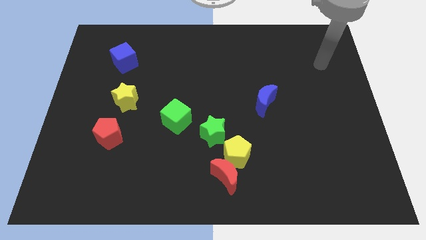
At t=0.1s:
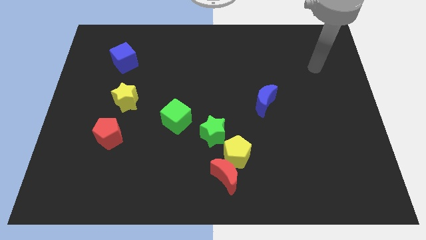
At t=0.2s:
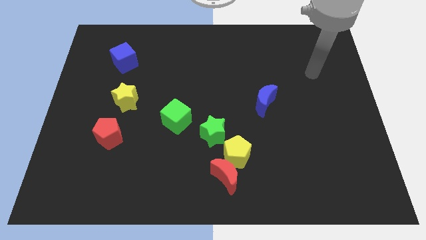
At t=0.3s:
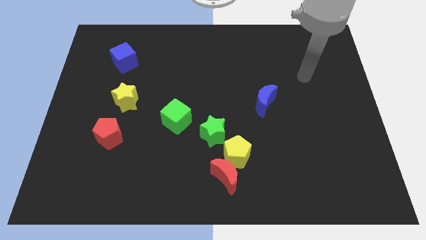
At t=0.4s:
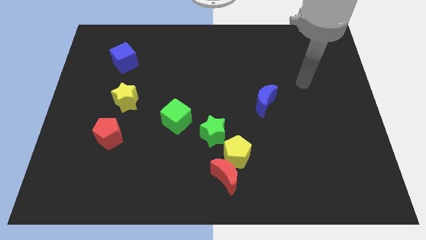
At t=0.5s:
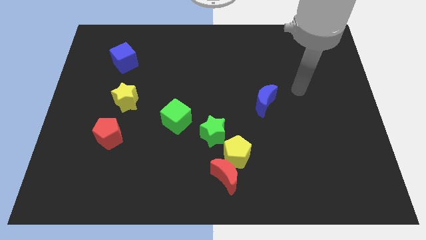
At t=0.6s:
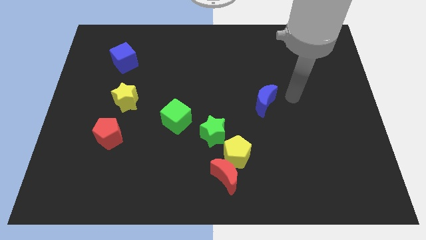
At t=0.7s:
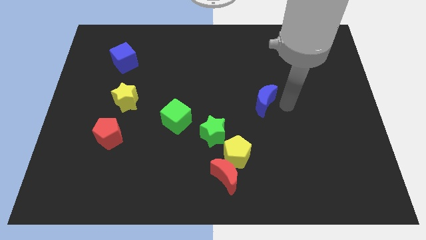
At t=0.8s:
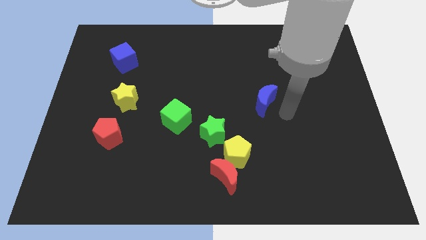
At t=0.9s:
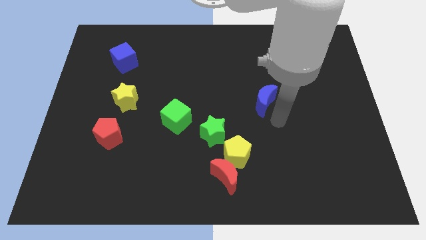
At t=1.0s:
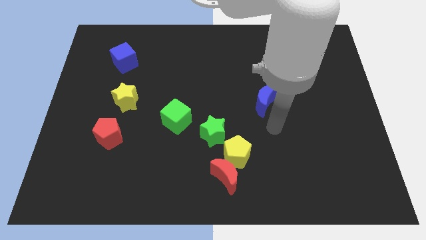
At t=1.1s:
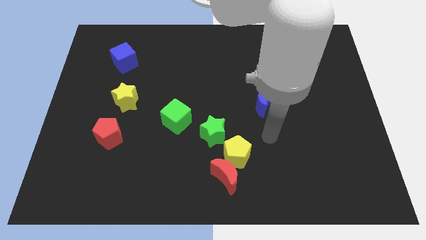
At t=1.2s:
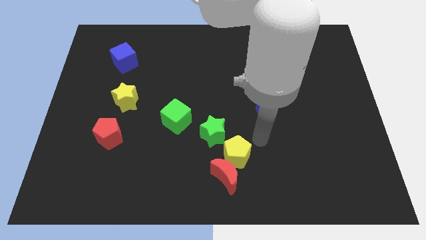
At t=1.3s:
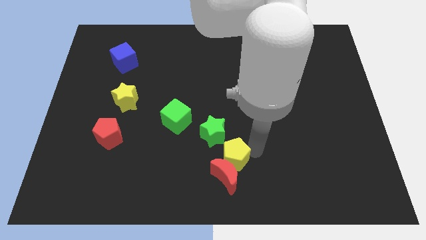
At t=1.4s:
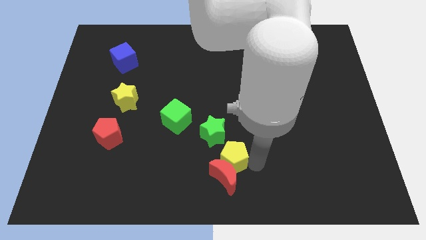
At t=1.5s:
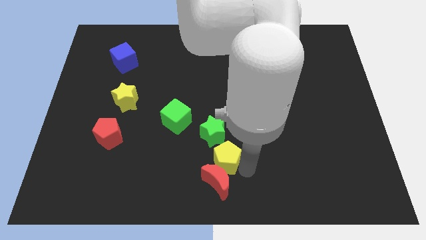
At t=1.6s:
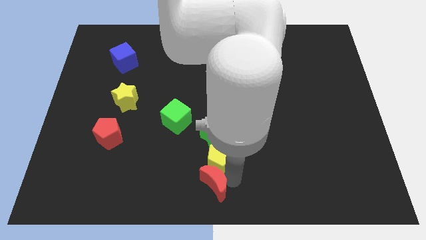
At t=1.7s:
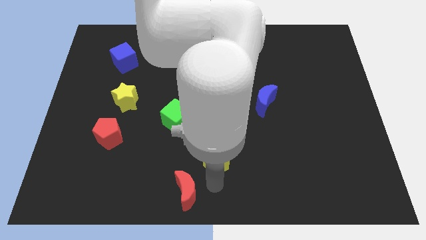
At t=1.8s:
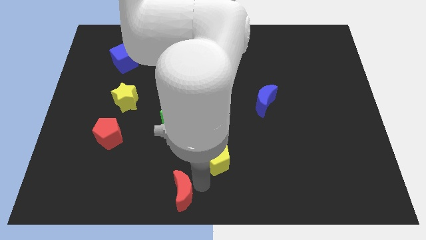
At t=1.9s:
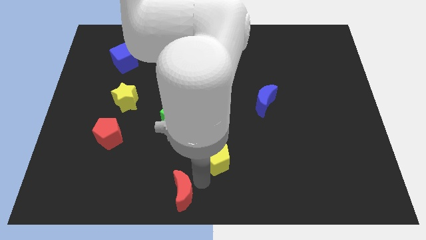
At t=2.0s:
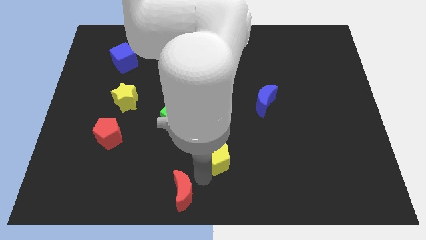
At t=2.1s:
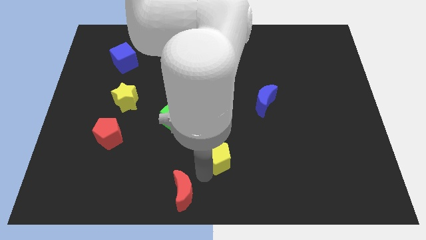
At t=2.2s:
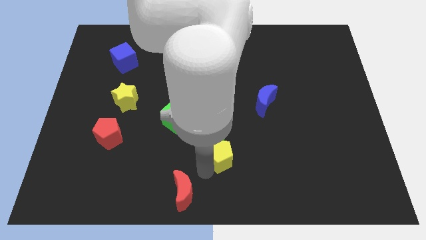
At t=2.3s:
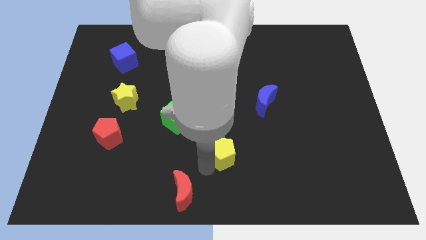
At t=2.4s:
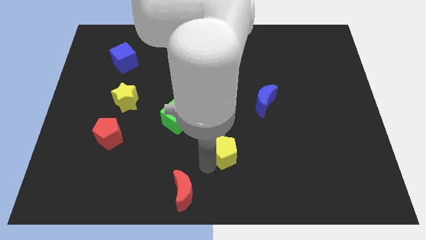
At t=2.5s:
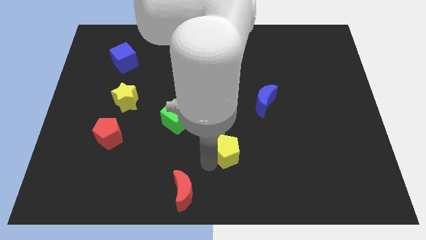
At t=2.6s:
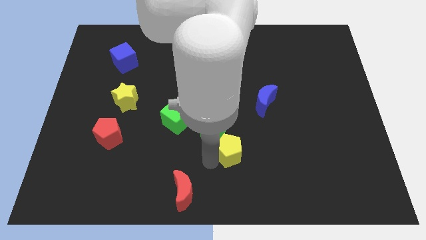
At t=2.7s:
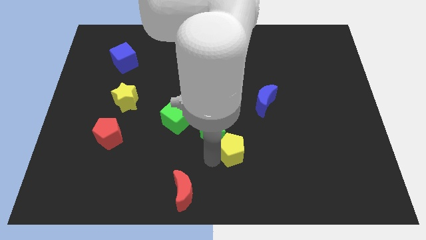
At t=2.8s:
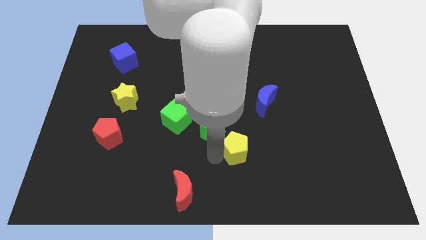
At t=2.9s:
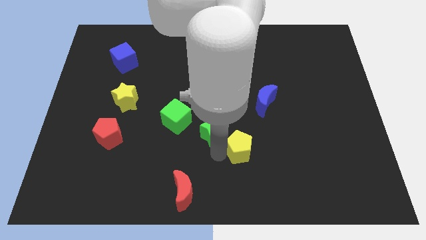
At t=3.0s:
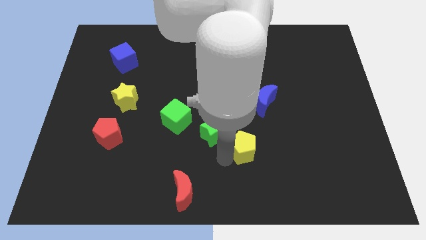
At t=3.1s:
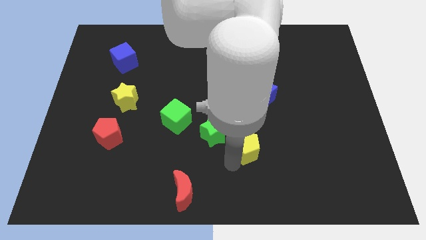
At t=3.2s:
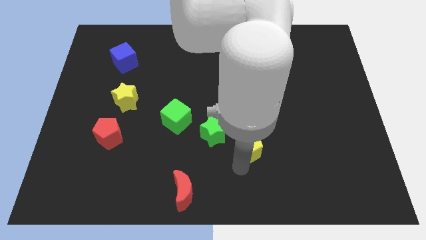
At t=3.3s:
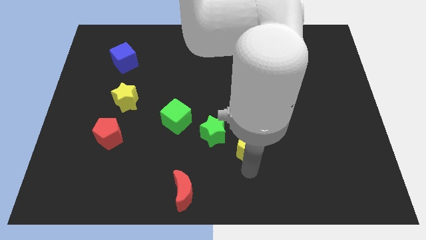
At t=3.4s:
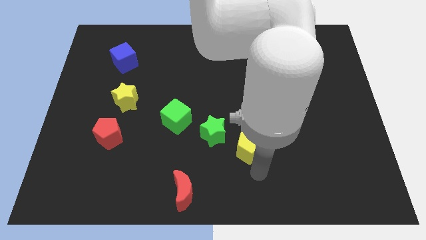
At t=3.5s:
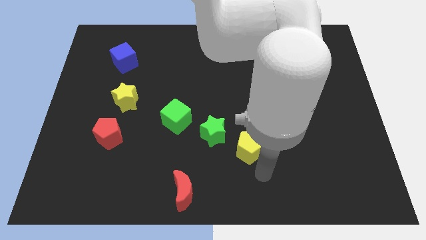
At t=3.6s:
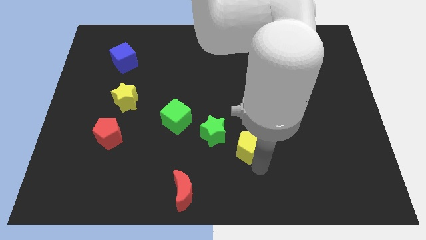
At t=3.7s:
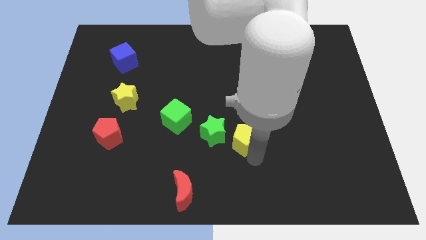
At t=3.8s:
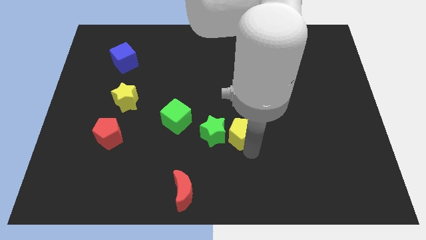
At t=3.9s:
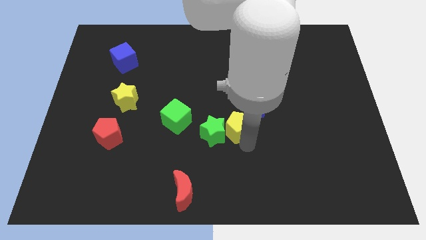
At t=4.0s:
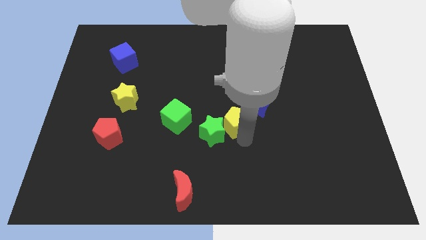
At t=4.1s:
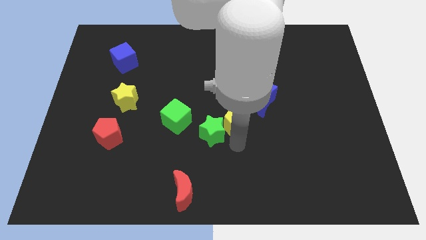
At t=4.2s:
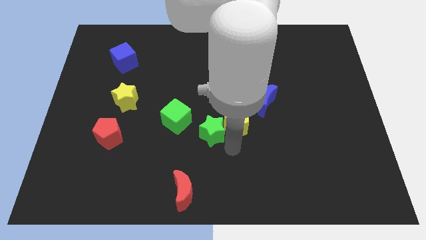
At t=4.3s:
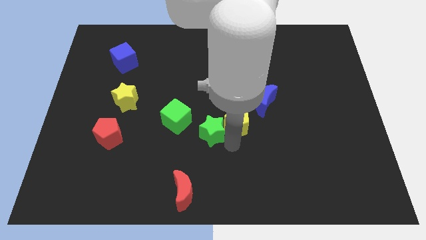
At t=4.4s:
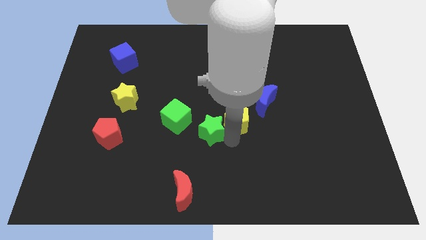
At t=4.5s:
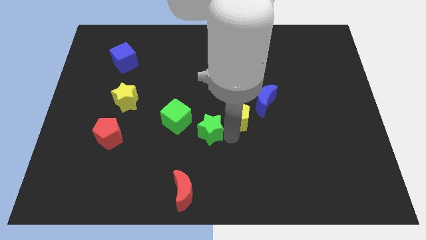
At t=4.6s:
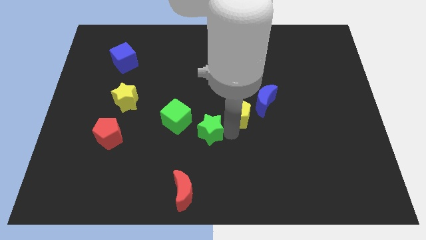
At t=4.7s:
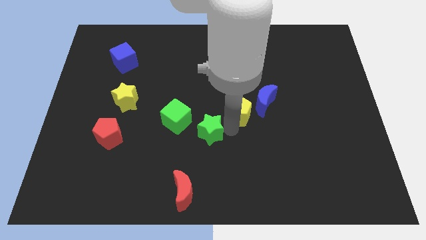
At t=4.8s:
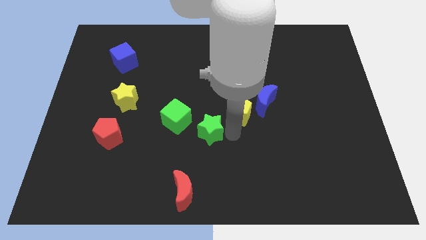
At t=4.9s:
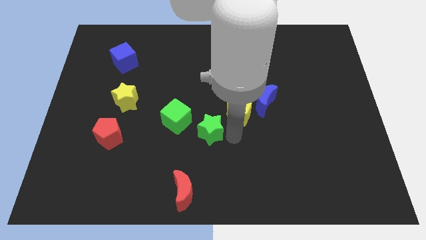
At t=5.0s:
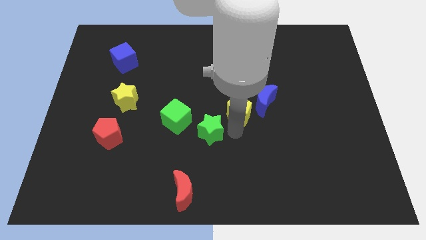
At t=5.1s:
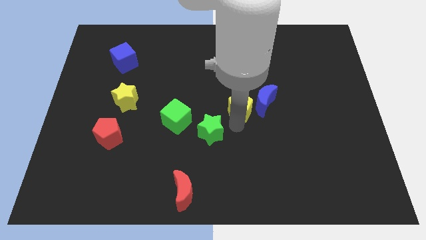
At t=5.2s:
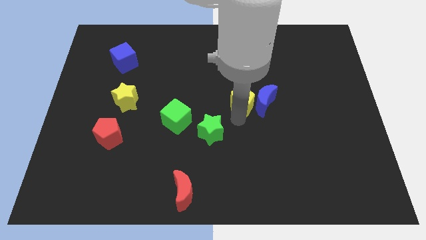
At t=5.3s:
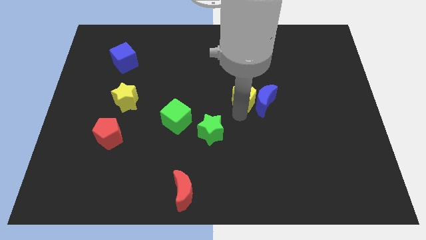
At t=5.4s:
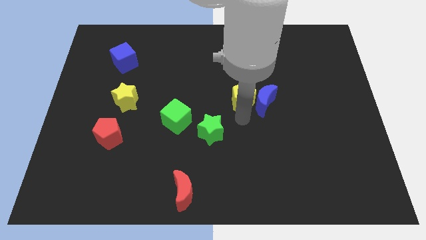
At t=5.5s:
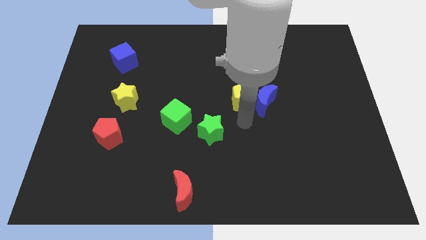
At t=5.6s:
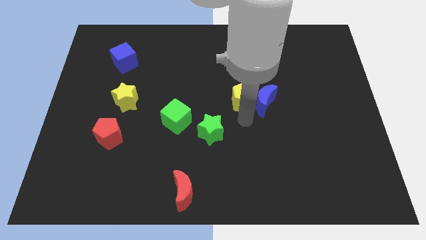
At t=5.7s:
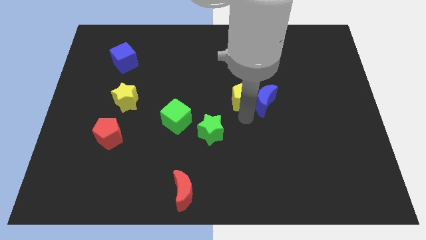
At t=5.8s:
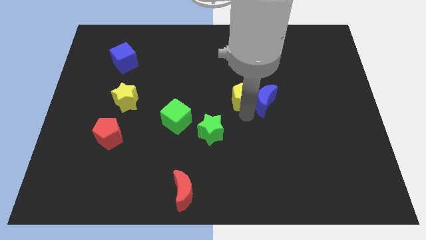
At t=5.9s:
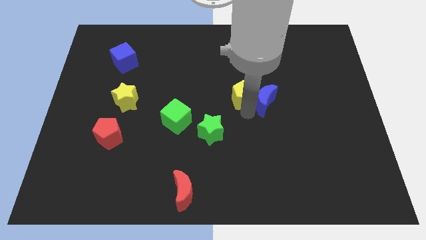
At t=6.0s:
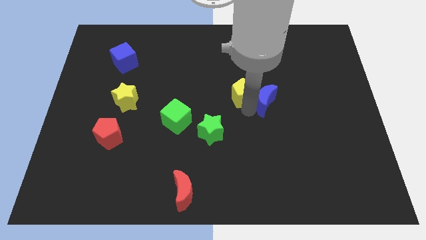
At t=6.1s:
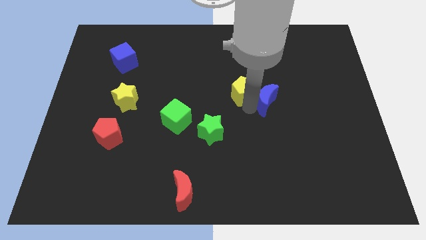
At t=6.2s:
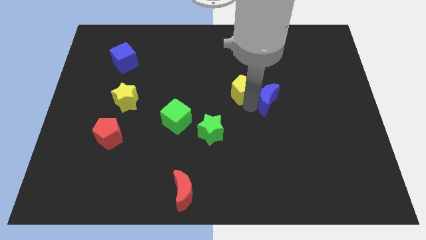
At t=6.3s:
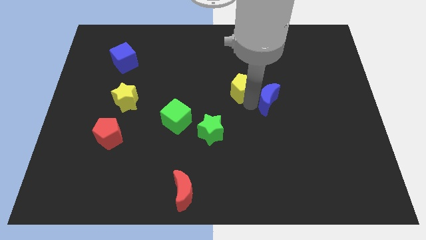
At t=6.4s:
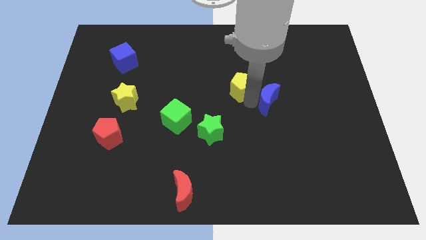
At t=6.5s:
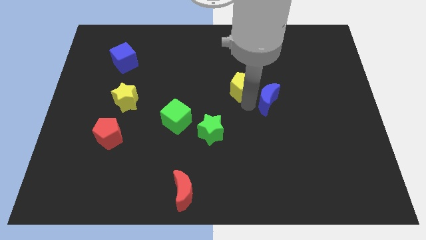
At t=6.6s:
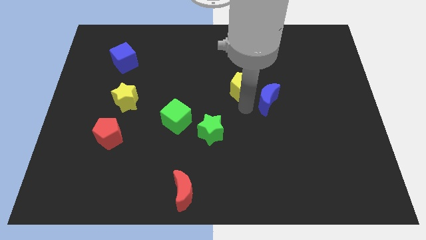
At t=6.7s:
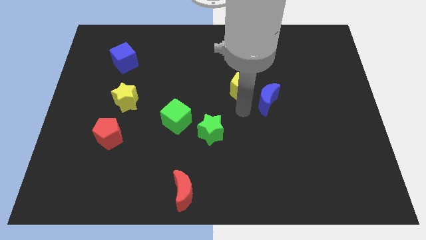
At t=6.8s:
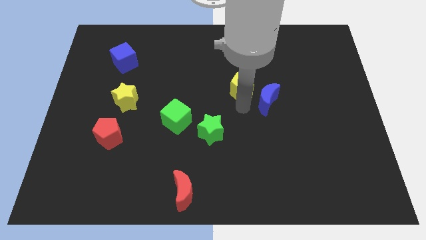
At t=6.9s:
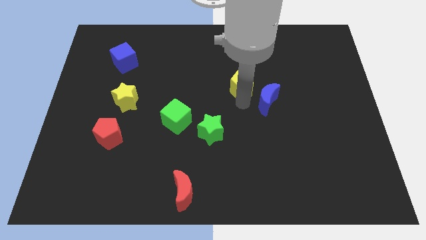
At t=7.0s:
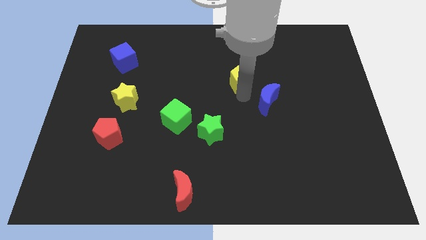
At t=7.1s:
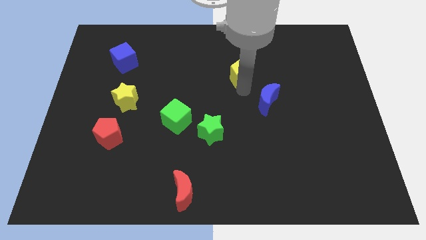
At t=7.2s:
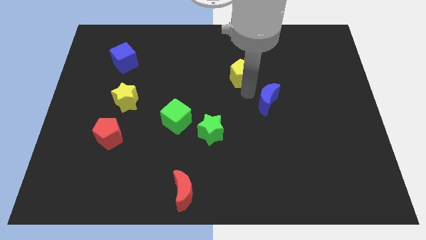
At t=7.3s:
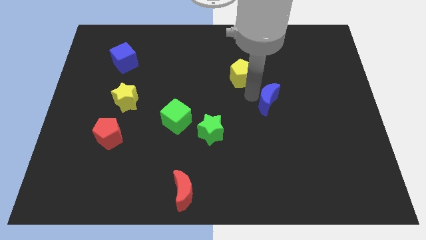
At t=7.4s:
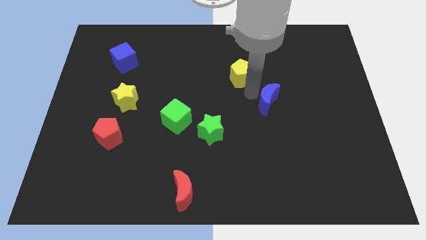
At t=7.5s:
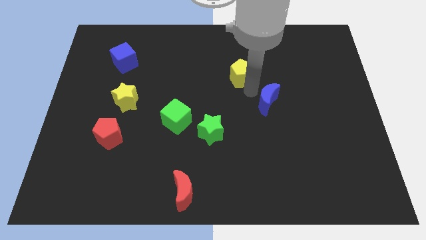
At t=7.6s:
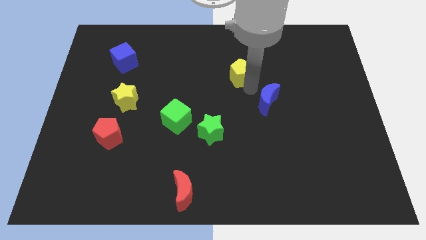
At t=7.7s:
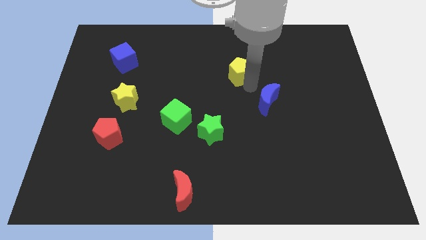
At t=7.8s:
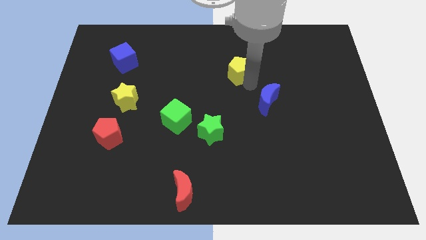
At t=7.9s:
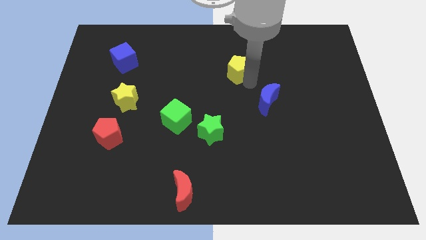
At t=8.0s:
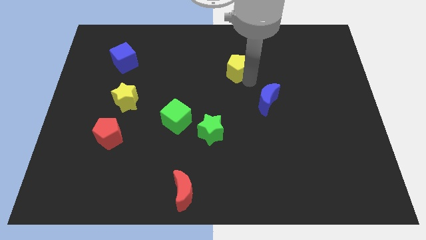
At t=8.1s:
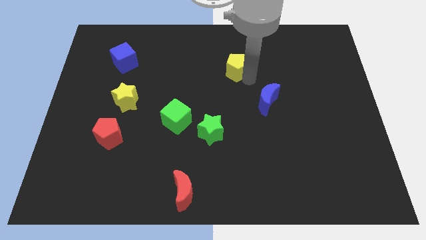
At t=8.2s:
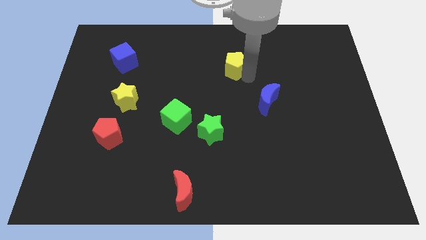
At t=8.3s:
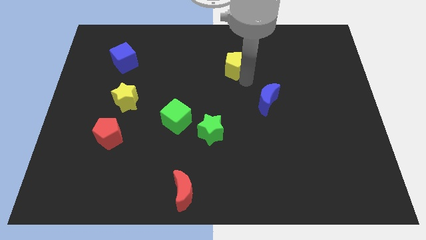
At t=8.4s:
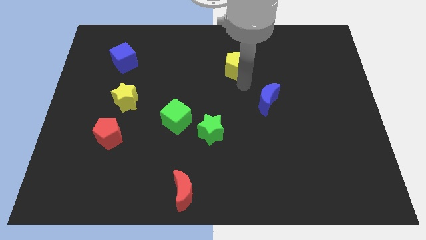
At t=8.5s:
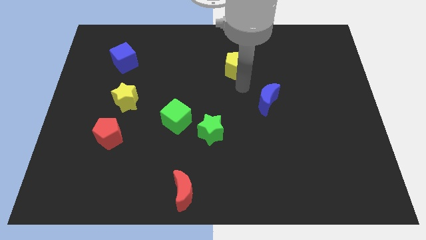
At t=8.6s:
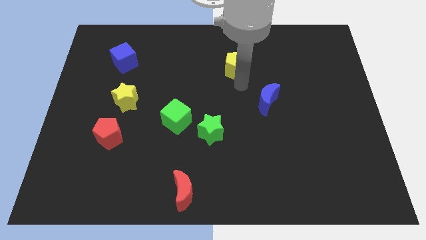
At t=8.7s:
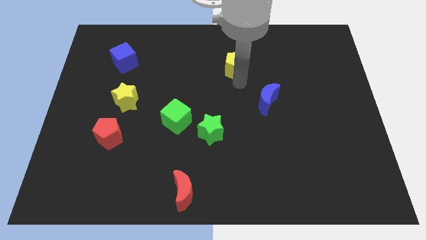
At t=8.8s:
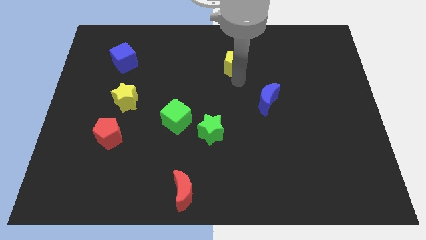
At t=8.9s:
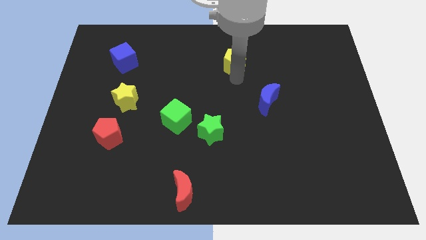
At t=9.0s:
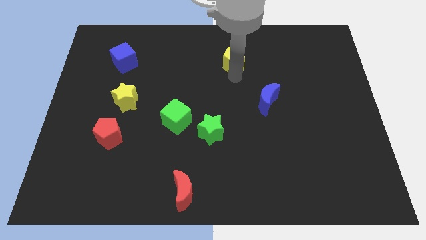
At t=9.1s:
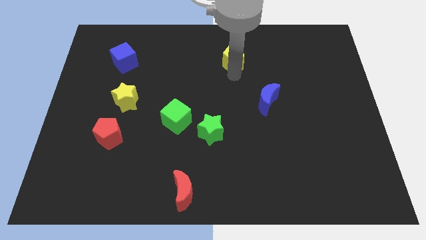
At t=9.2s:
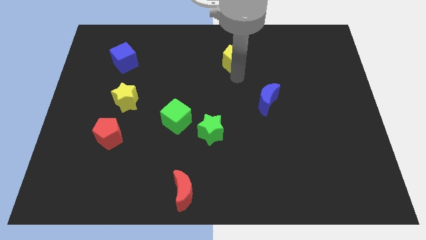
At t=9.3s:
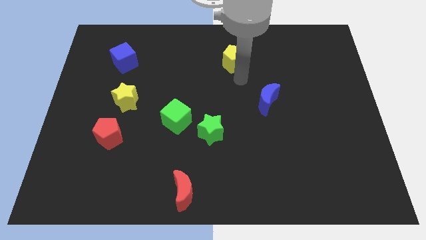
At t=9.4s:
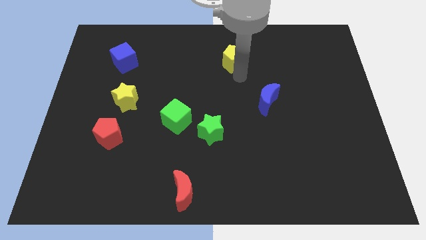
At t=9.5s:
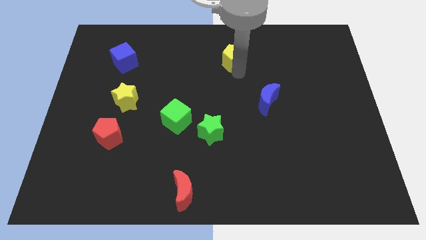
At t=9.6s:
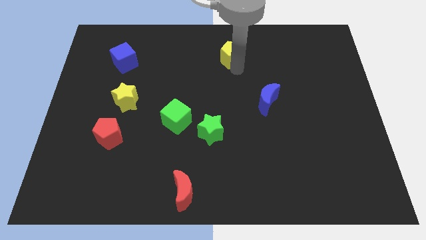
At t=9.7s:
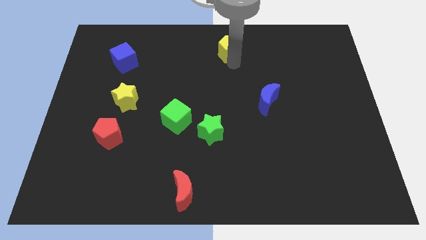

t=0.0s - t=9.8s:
put the yellow pentagon to the top side
